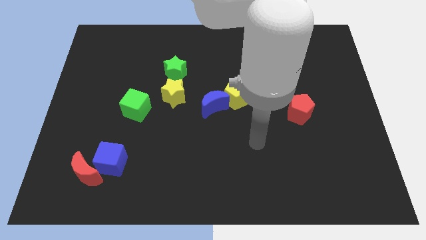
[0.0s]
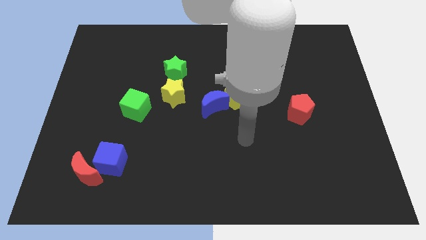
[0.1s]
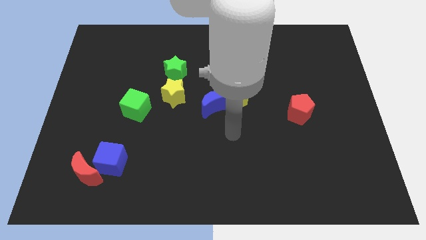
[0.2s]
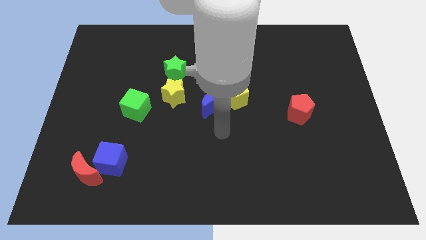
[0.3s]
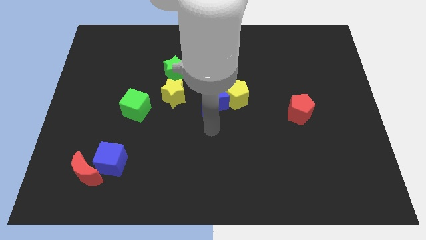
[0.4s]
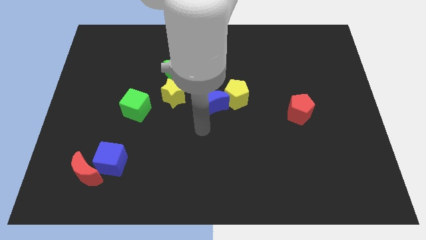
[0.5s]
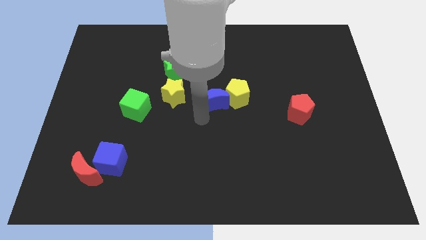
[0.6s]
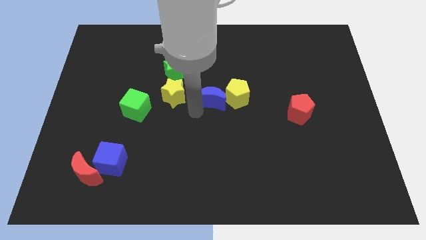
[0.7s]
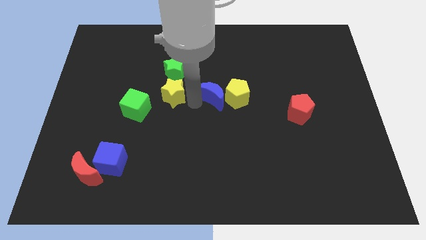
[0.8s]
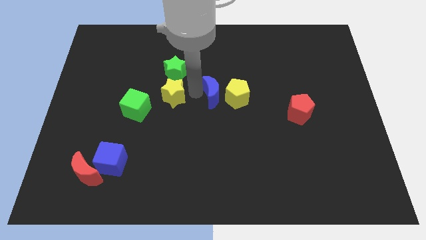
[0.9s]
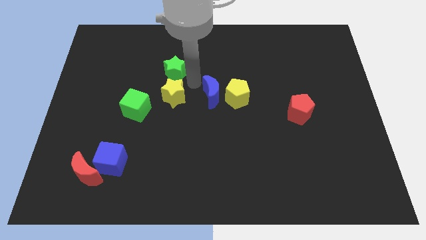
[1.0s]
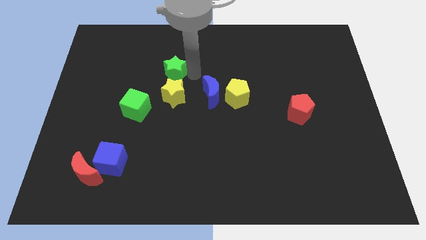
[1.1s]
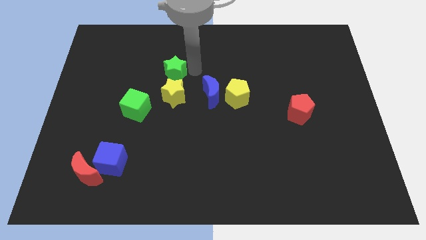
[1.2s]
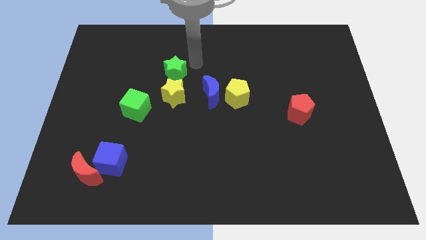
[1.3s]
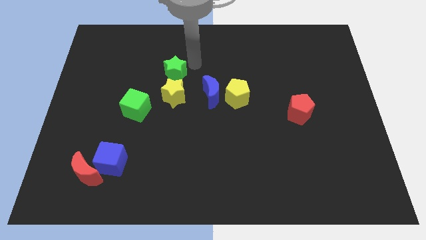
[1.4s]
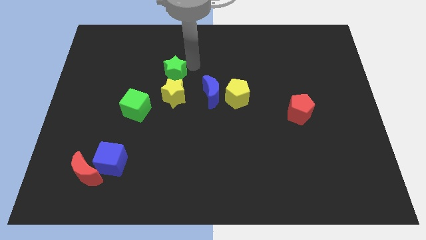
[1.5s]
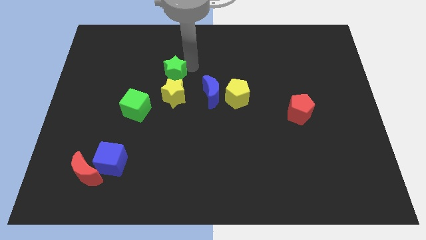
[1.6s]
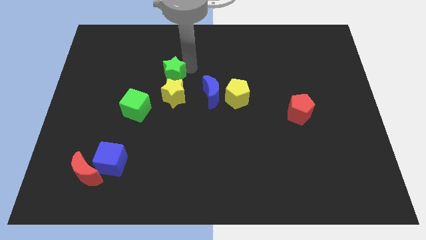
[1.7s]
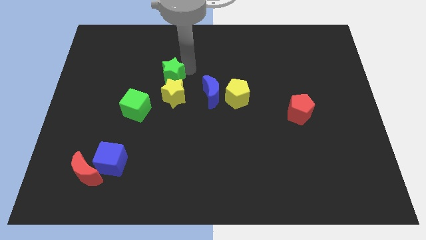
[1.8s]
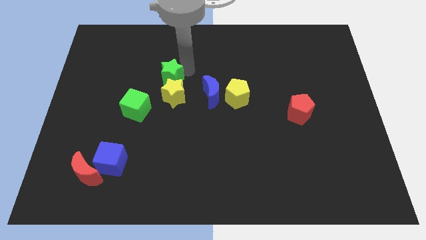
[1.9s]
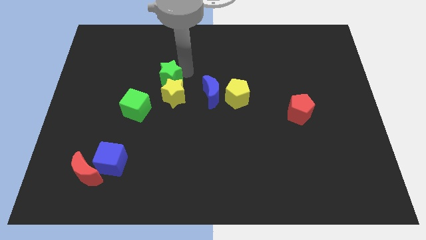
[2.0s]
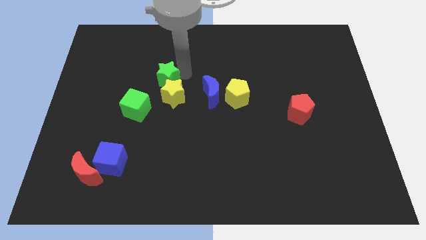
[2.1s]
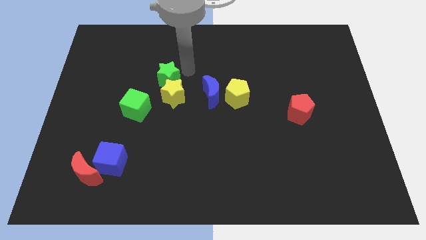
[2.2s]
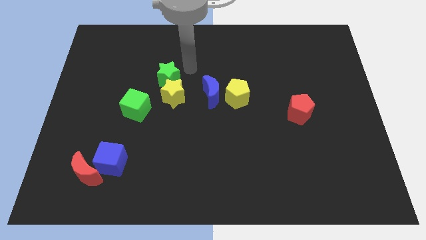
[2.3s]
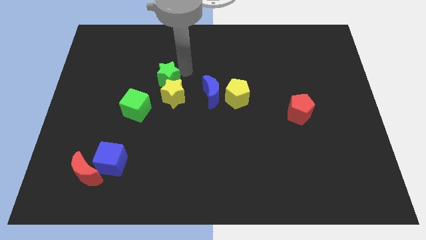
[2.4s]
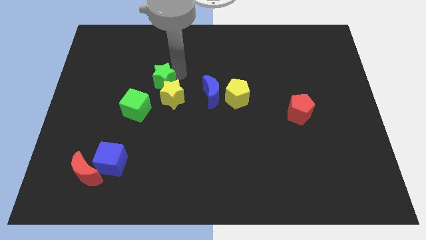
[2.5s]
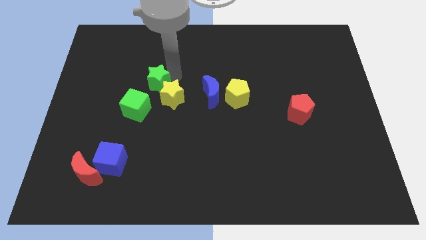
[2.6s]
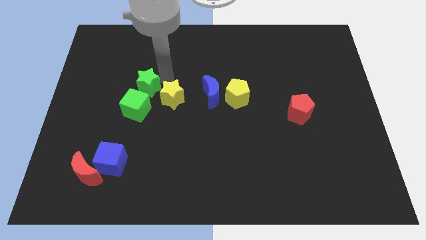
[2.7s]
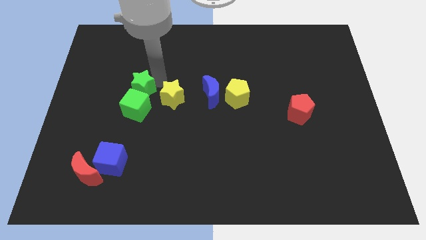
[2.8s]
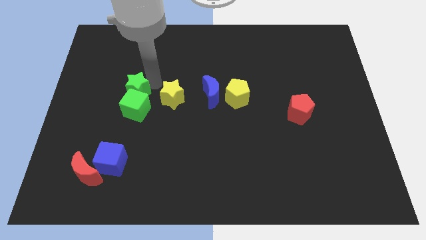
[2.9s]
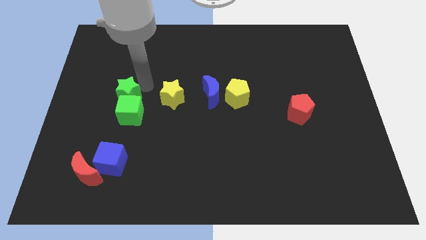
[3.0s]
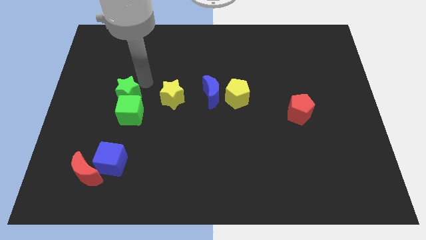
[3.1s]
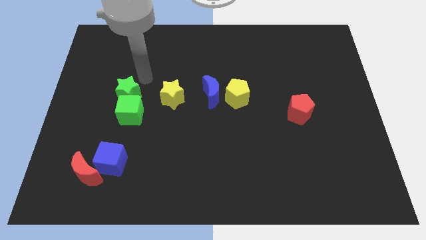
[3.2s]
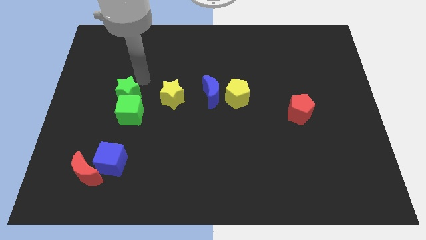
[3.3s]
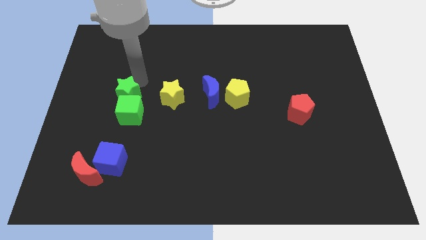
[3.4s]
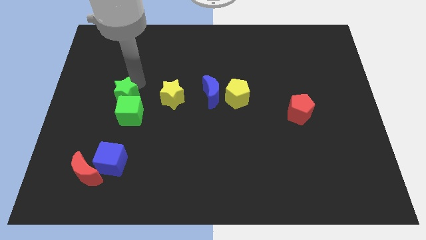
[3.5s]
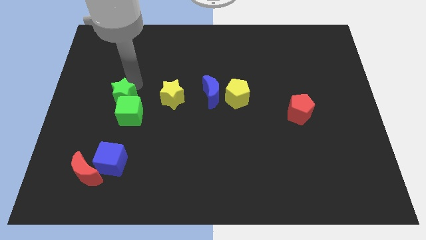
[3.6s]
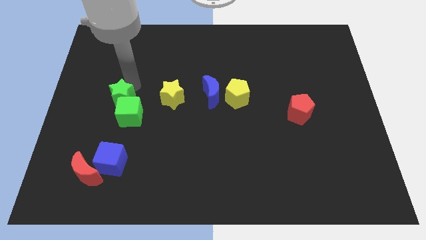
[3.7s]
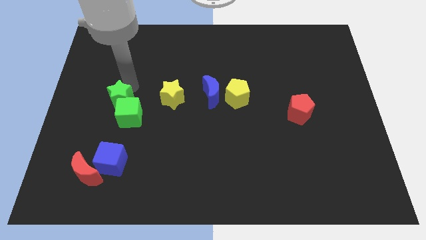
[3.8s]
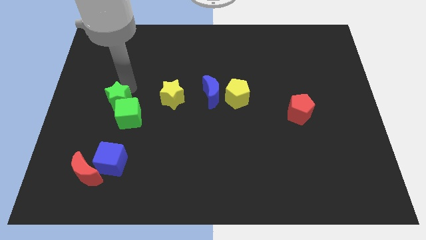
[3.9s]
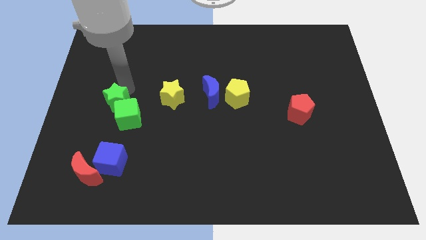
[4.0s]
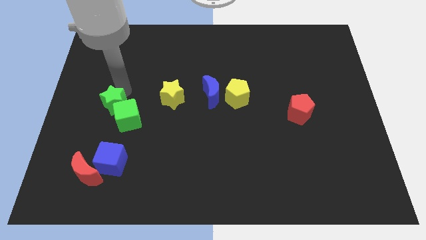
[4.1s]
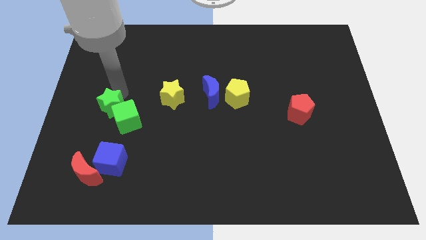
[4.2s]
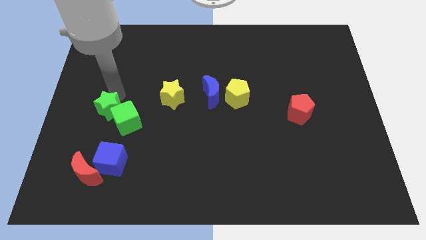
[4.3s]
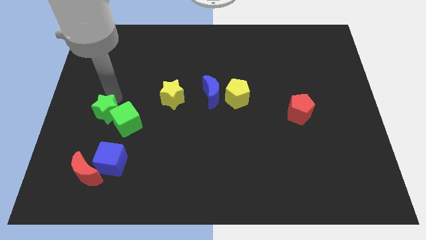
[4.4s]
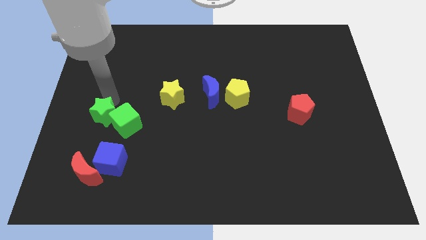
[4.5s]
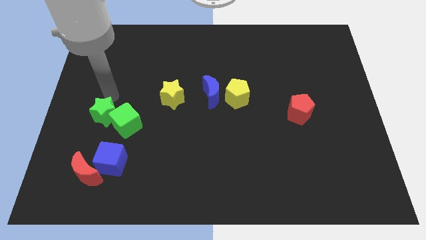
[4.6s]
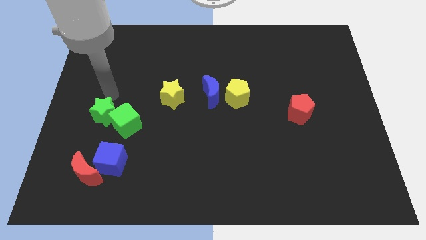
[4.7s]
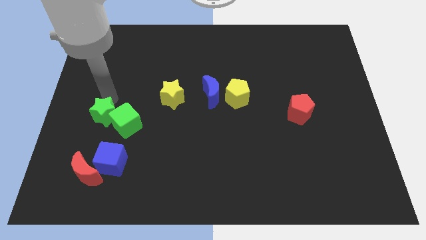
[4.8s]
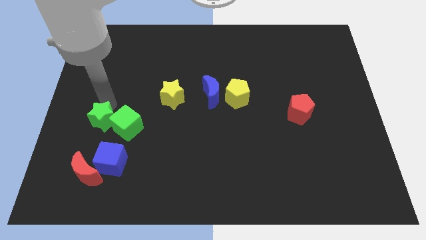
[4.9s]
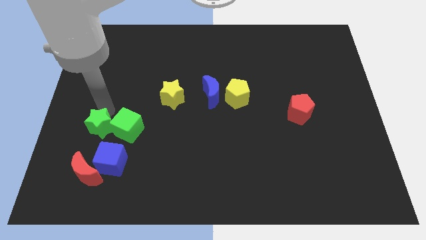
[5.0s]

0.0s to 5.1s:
move the green star to the bottom left side of the green cube

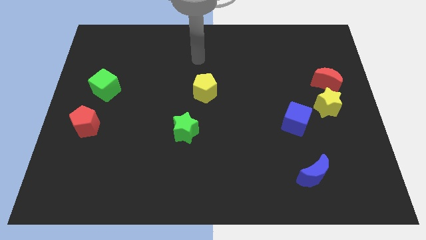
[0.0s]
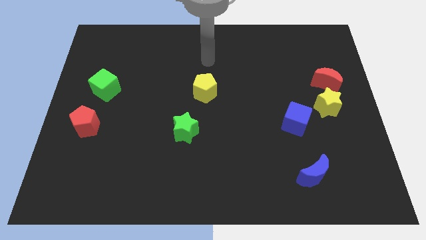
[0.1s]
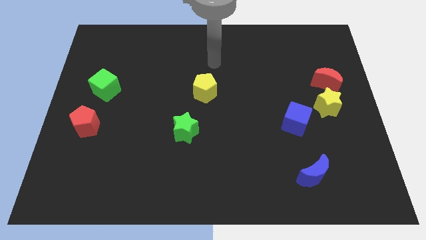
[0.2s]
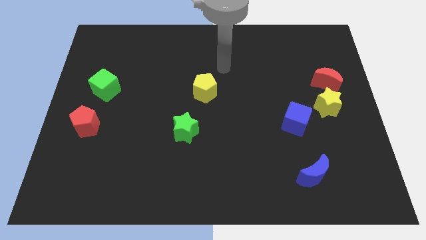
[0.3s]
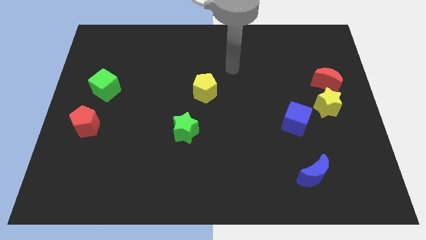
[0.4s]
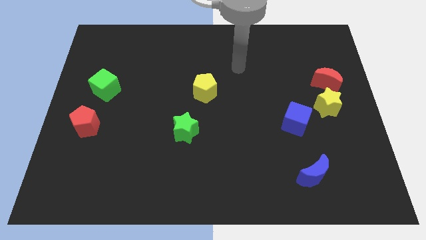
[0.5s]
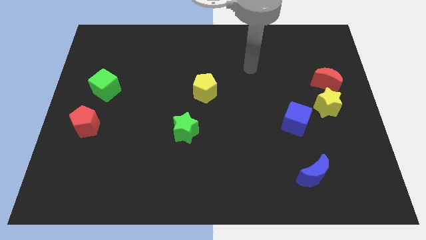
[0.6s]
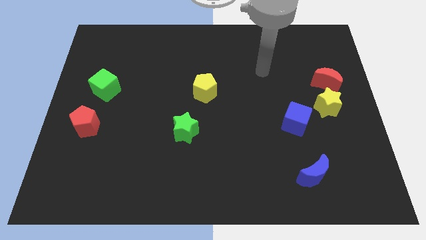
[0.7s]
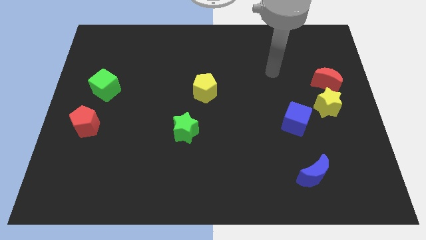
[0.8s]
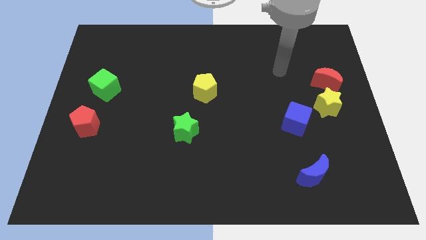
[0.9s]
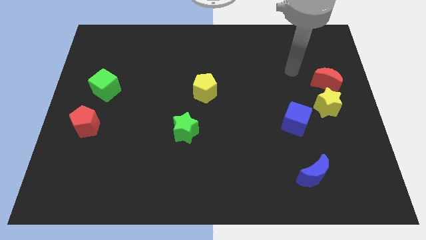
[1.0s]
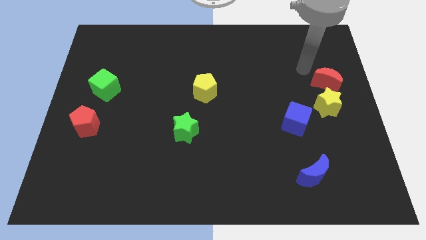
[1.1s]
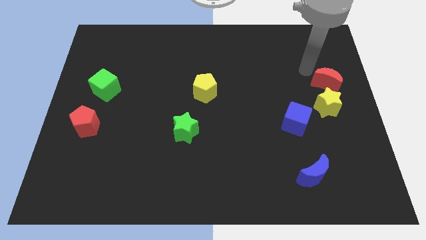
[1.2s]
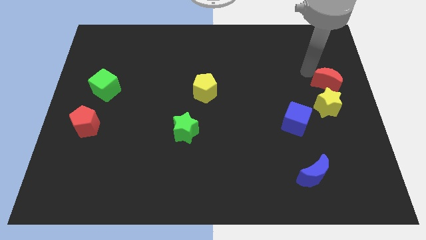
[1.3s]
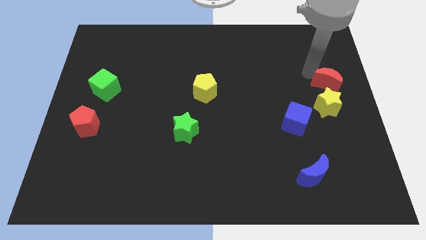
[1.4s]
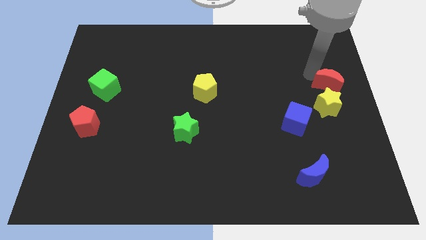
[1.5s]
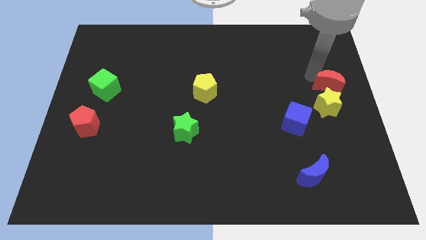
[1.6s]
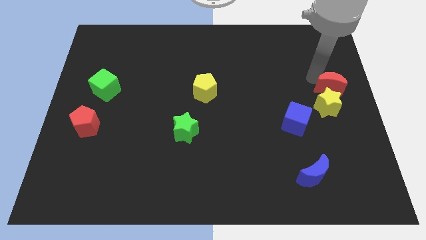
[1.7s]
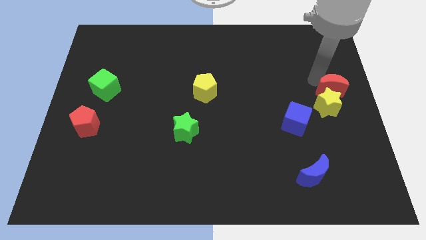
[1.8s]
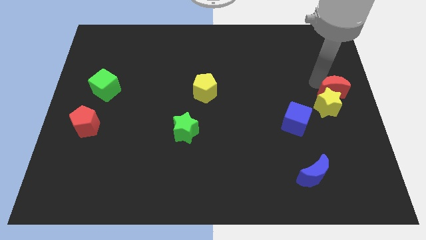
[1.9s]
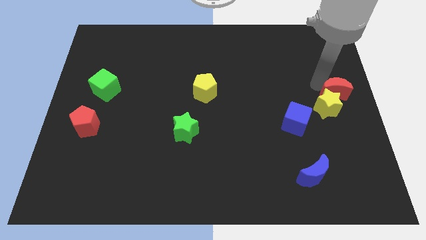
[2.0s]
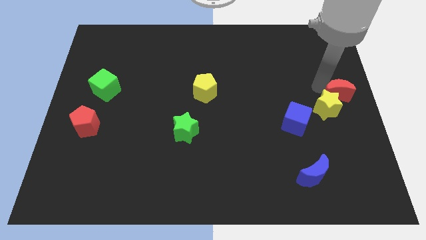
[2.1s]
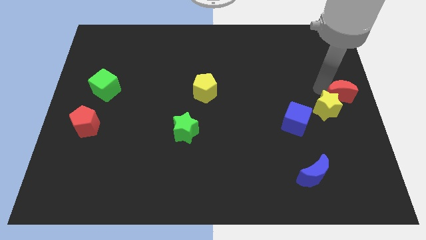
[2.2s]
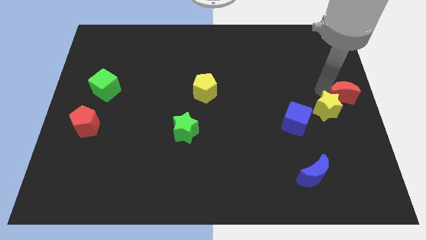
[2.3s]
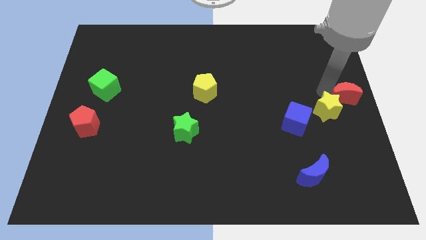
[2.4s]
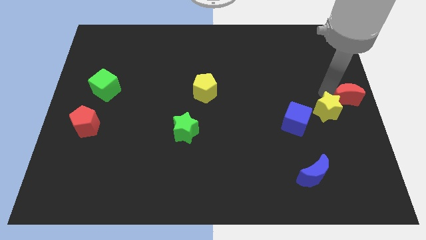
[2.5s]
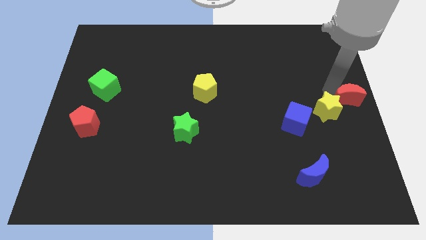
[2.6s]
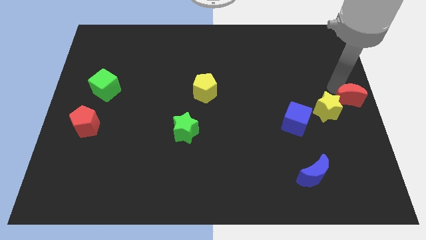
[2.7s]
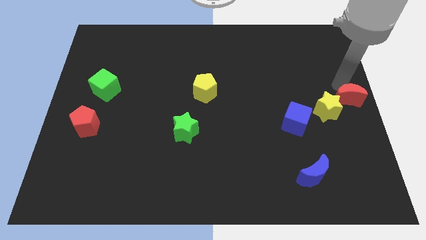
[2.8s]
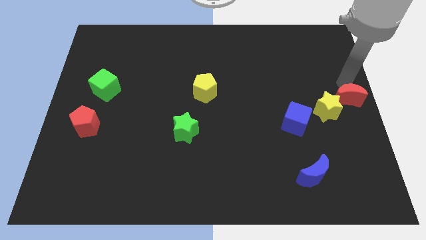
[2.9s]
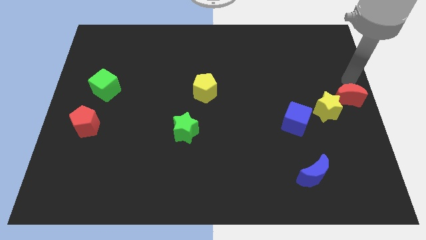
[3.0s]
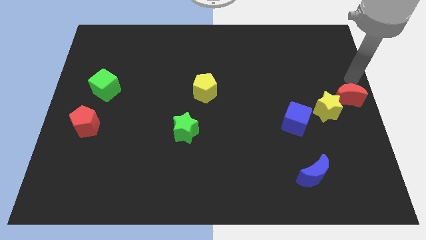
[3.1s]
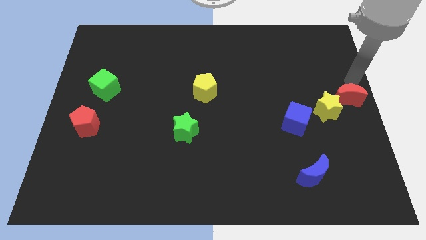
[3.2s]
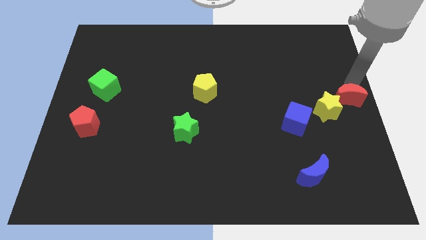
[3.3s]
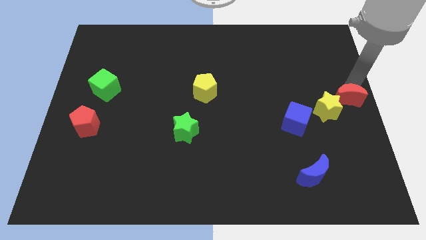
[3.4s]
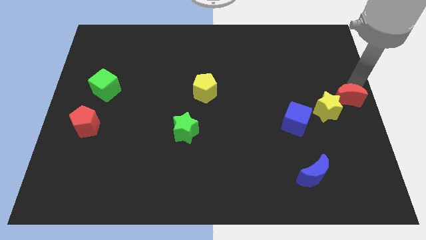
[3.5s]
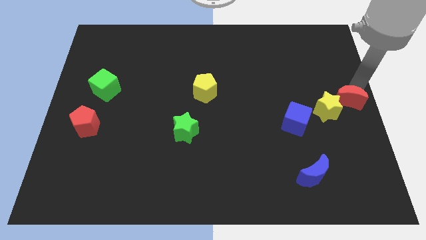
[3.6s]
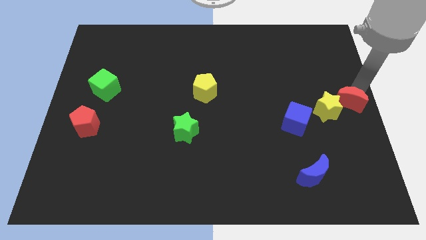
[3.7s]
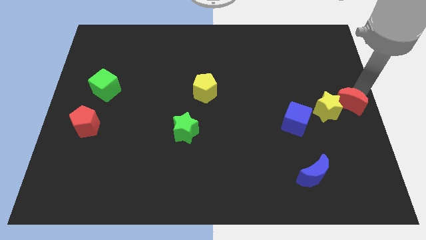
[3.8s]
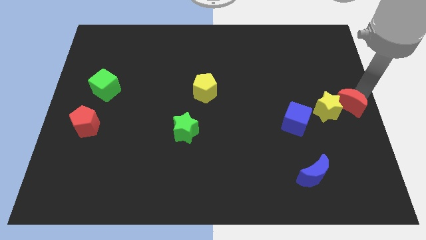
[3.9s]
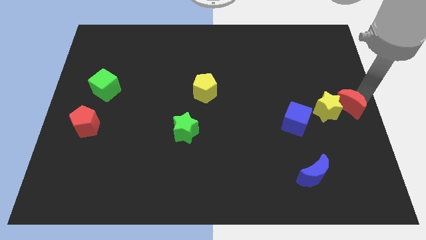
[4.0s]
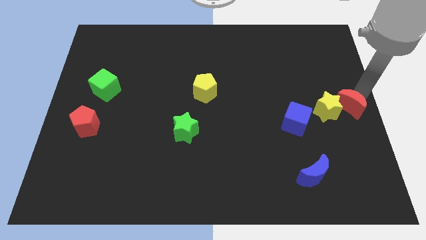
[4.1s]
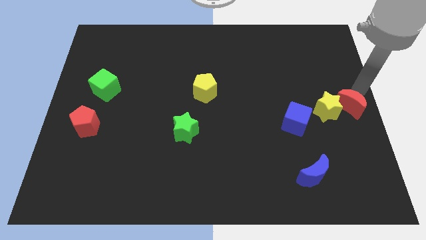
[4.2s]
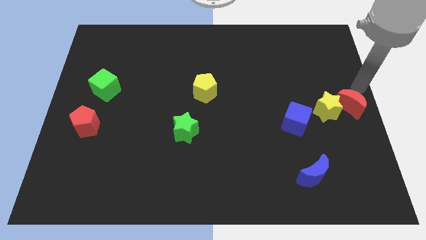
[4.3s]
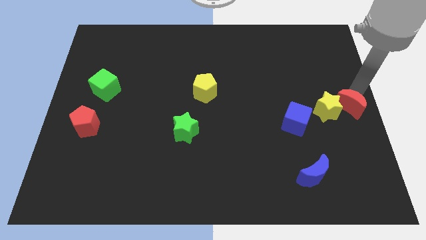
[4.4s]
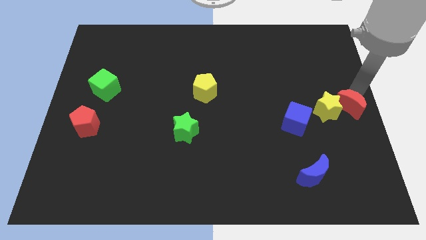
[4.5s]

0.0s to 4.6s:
move the red moon to the right side of the blue cube
